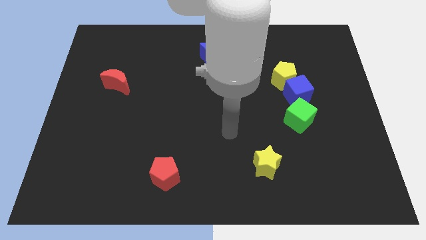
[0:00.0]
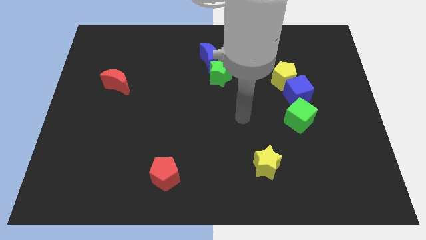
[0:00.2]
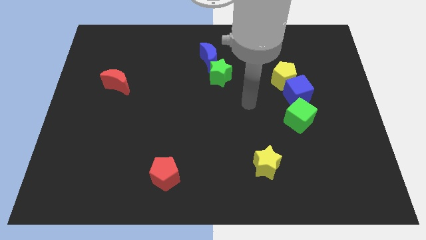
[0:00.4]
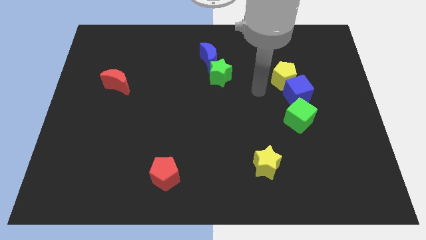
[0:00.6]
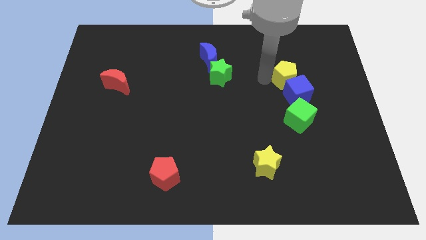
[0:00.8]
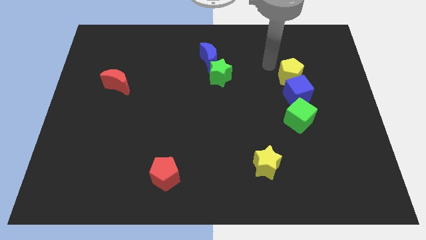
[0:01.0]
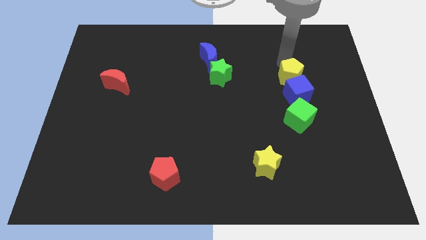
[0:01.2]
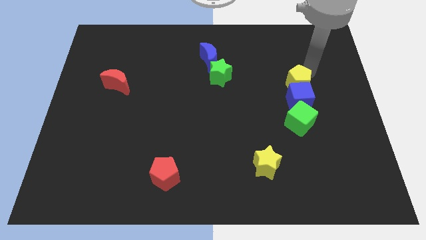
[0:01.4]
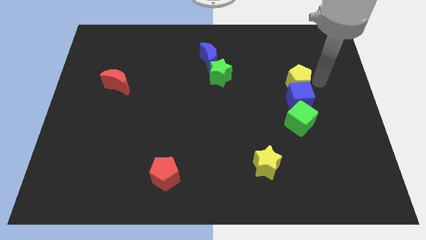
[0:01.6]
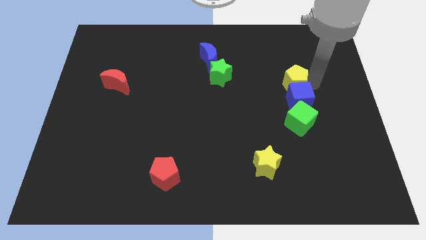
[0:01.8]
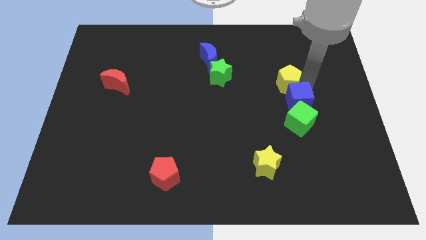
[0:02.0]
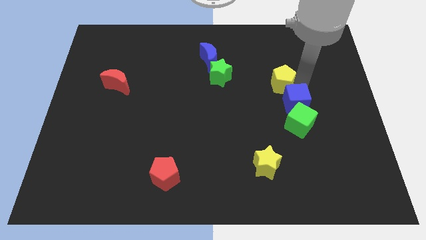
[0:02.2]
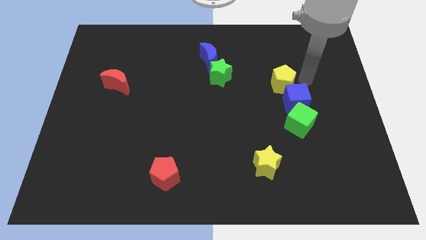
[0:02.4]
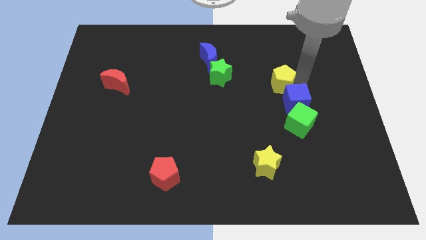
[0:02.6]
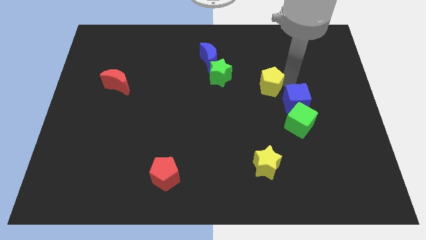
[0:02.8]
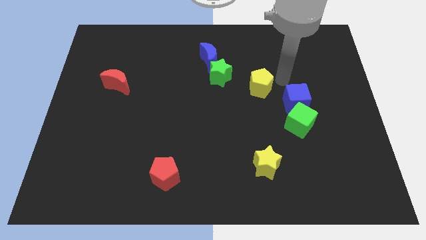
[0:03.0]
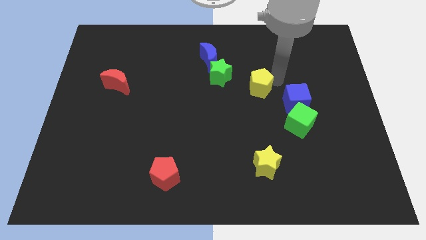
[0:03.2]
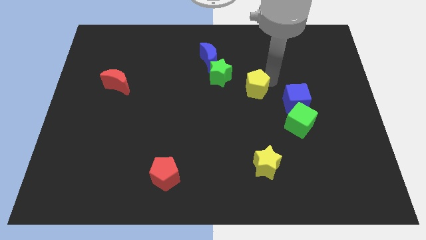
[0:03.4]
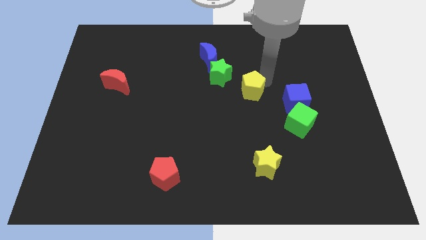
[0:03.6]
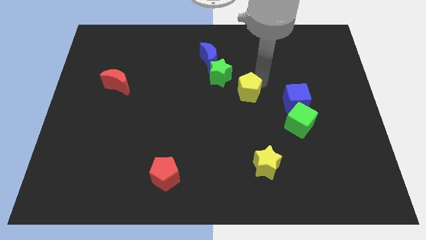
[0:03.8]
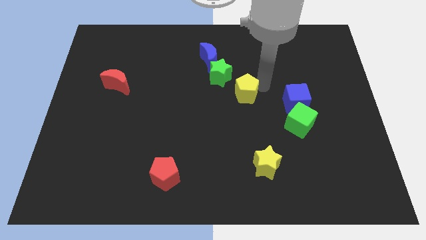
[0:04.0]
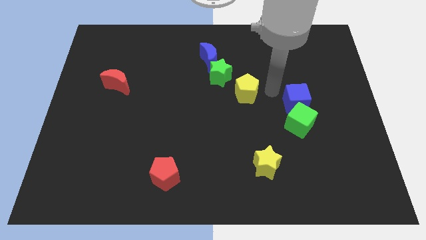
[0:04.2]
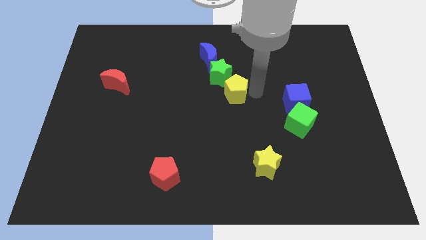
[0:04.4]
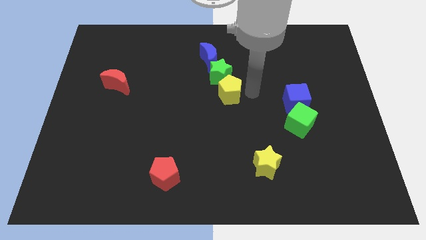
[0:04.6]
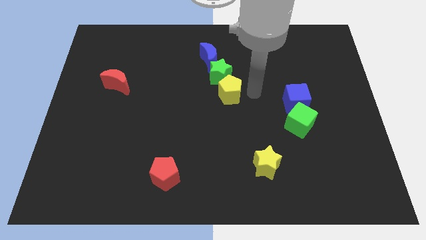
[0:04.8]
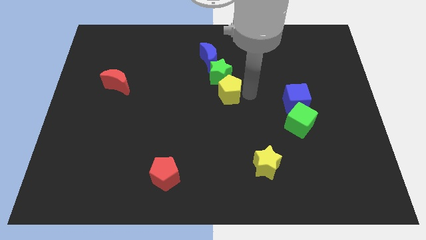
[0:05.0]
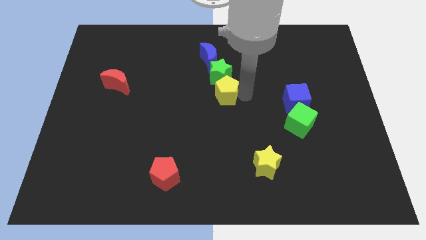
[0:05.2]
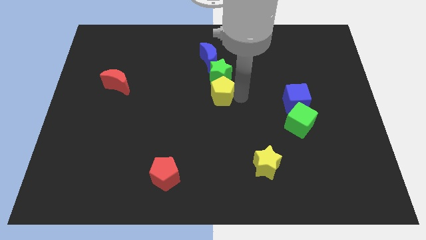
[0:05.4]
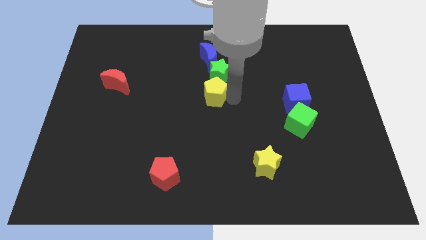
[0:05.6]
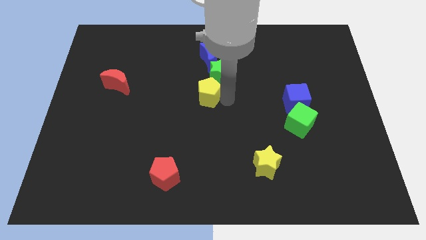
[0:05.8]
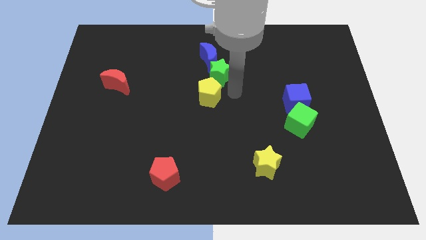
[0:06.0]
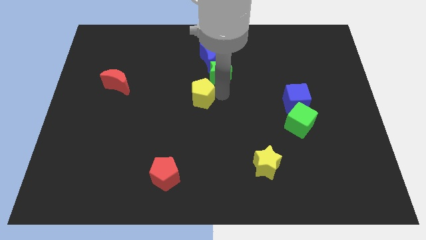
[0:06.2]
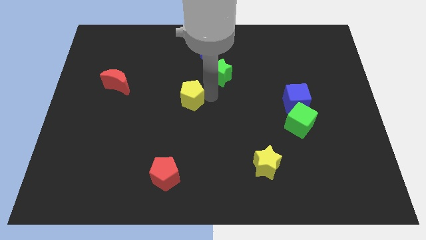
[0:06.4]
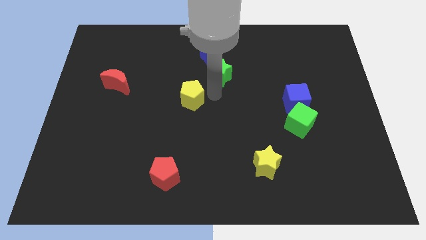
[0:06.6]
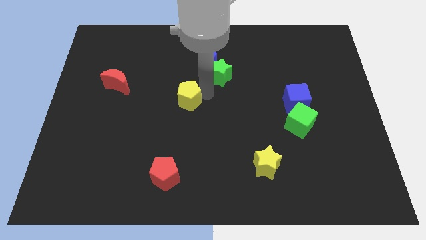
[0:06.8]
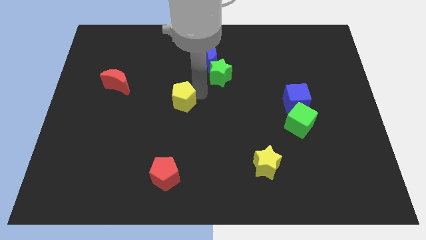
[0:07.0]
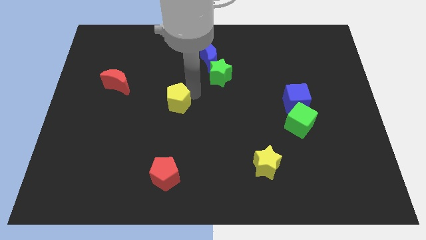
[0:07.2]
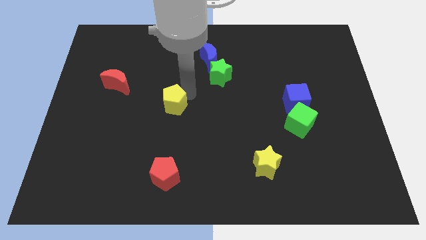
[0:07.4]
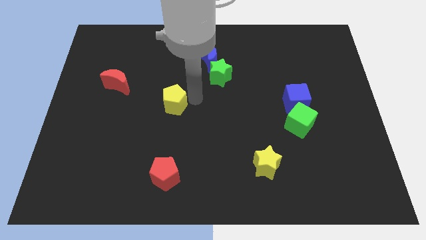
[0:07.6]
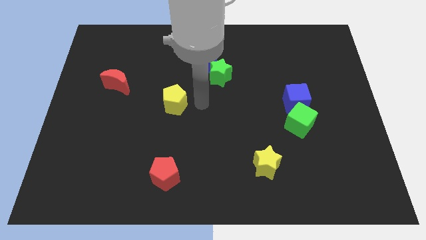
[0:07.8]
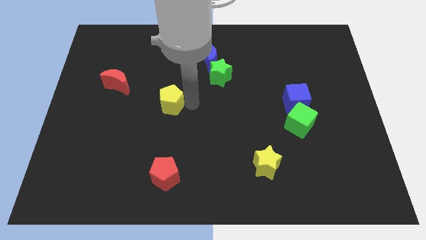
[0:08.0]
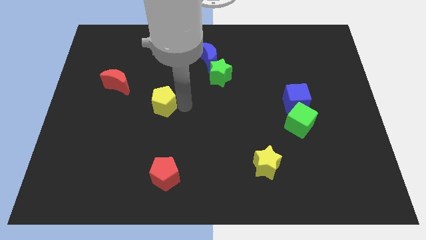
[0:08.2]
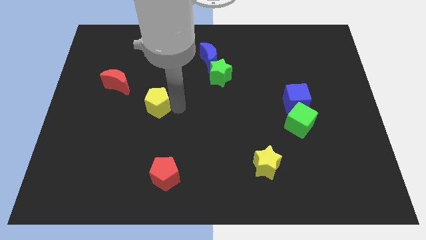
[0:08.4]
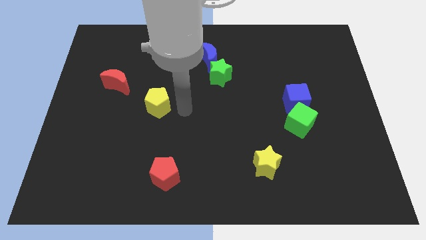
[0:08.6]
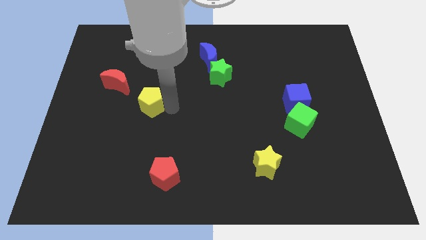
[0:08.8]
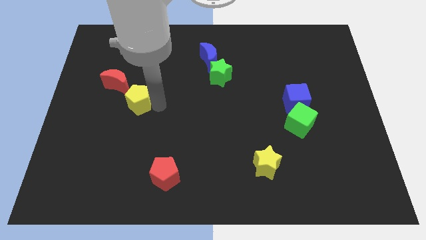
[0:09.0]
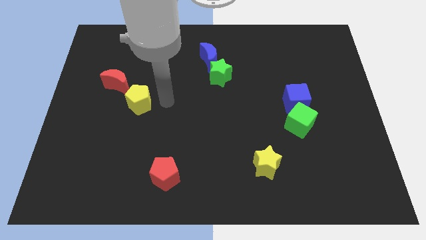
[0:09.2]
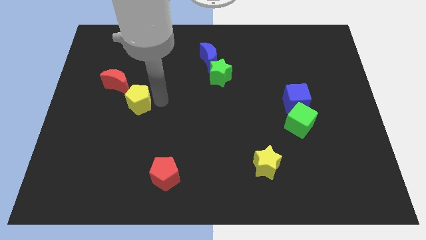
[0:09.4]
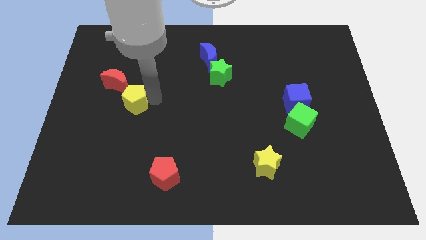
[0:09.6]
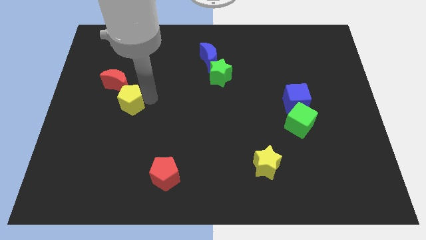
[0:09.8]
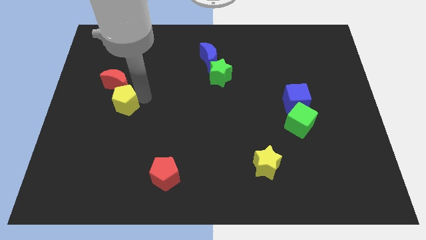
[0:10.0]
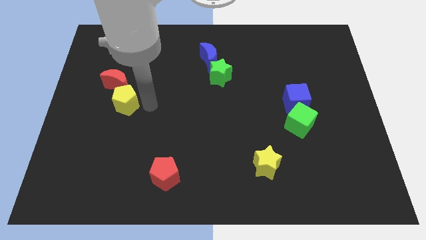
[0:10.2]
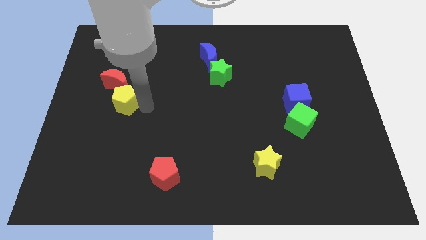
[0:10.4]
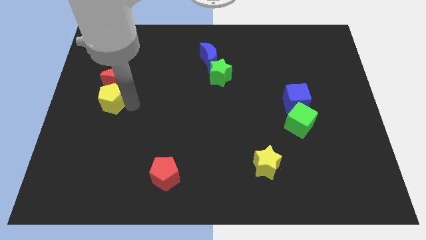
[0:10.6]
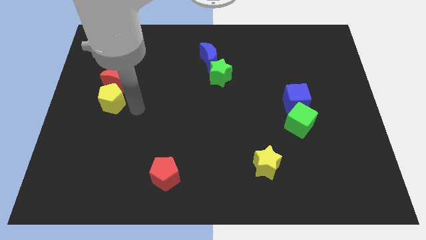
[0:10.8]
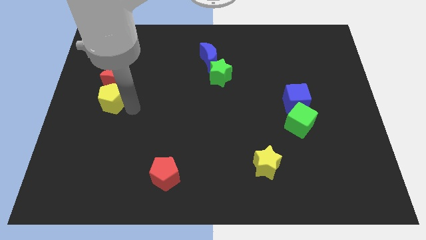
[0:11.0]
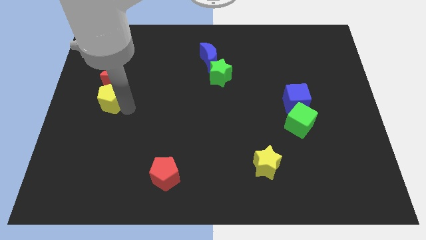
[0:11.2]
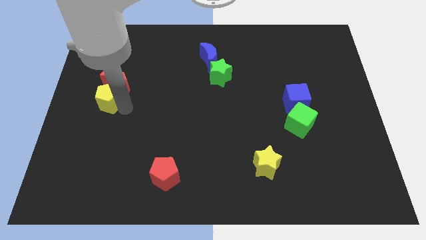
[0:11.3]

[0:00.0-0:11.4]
push the yellow pentagon to the center left
